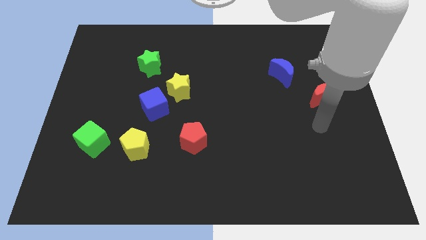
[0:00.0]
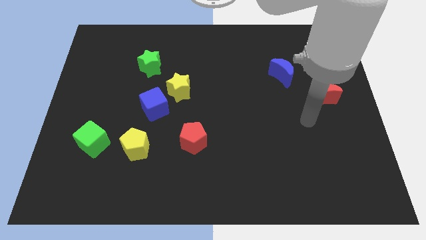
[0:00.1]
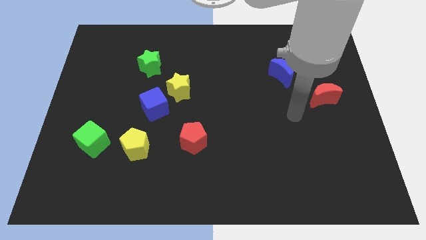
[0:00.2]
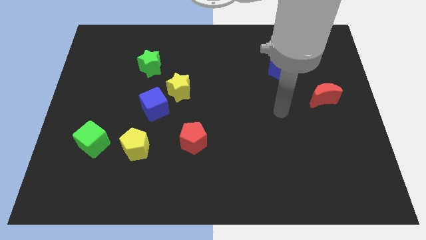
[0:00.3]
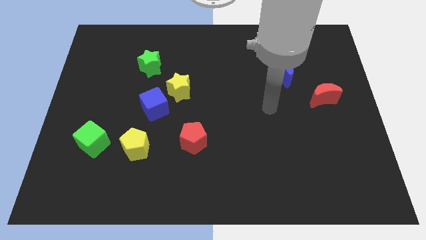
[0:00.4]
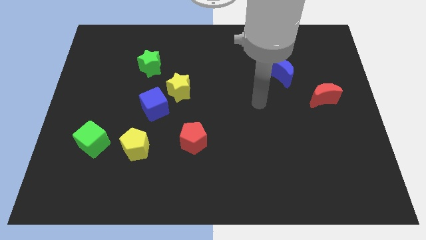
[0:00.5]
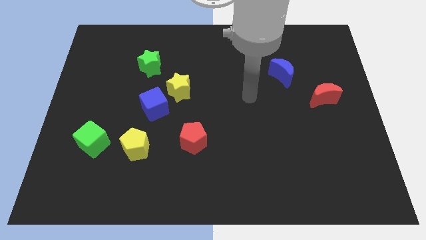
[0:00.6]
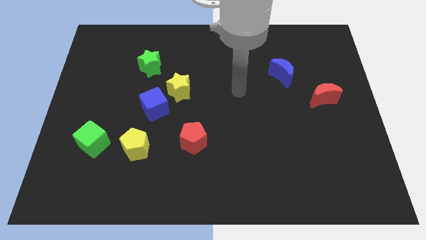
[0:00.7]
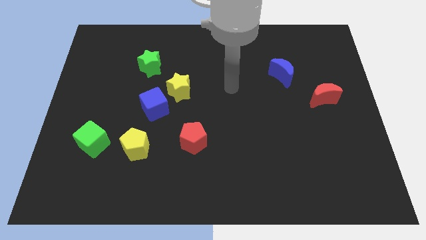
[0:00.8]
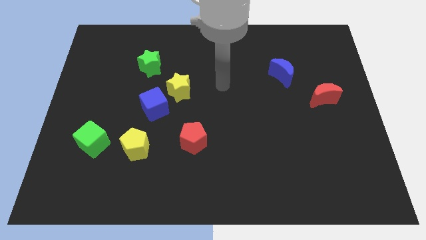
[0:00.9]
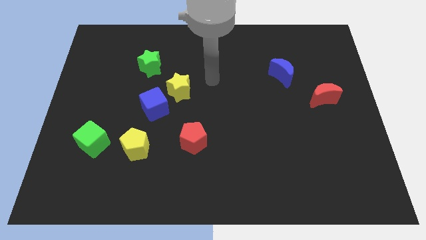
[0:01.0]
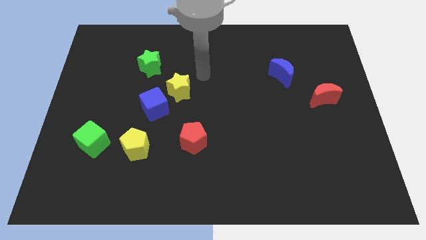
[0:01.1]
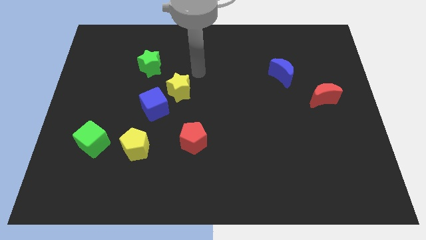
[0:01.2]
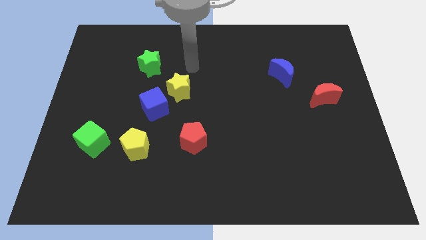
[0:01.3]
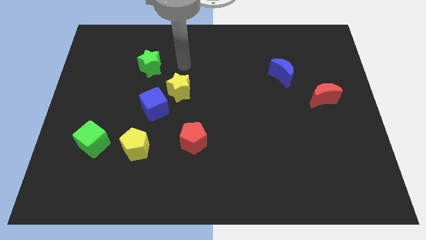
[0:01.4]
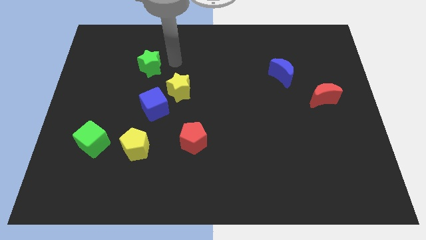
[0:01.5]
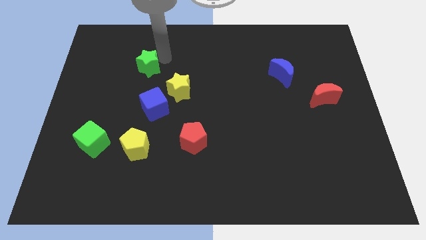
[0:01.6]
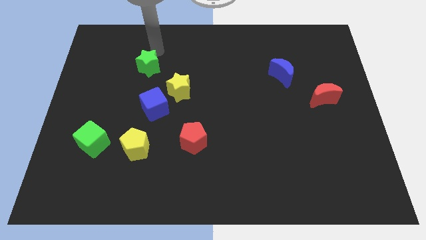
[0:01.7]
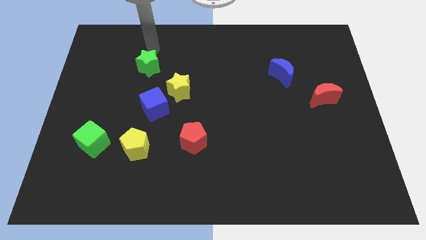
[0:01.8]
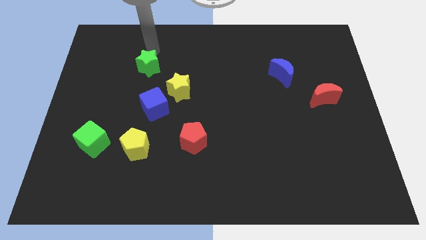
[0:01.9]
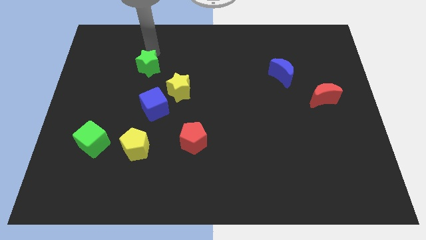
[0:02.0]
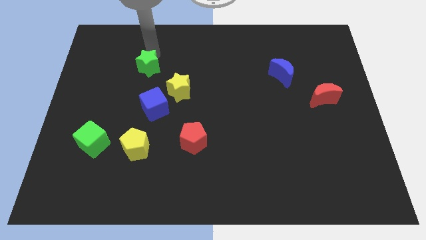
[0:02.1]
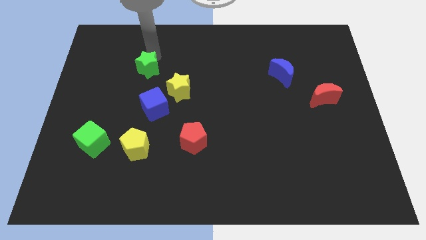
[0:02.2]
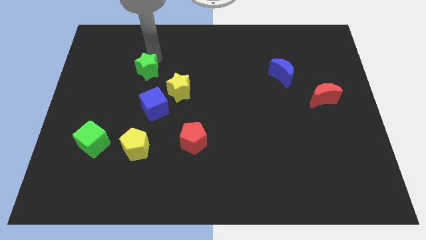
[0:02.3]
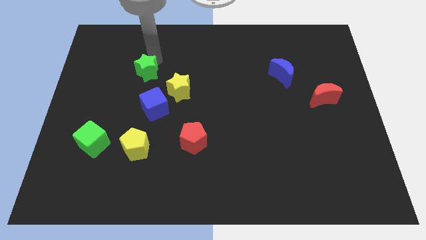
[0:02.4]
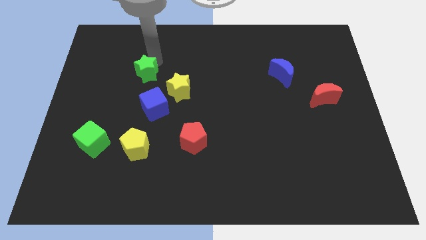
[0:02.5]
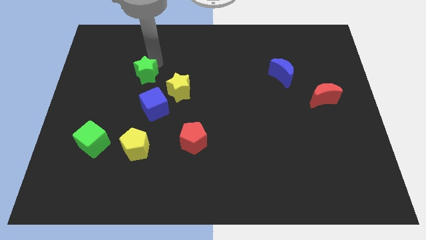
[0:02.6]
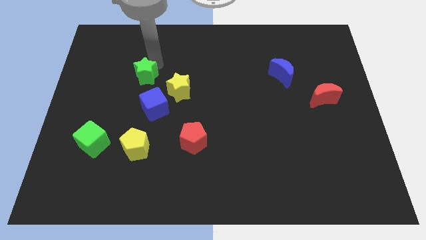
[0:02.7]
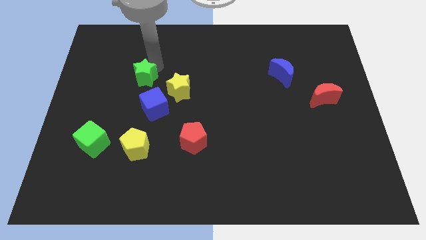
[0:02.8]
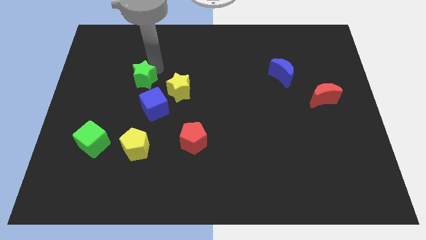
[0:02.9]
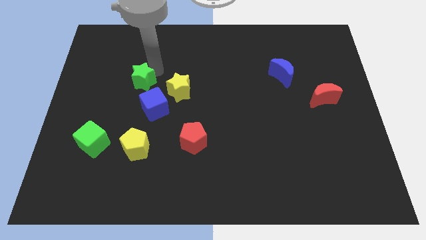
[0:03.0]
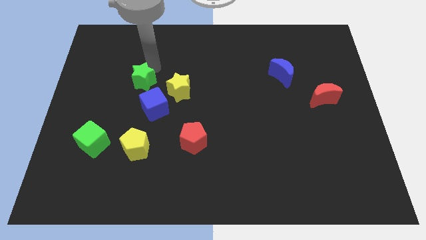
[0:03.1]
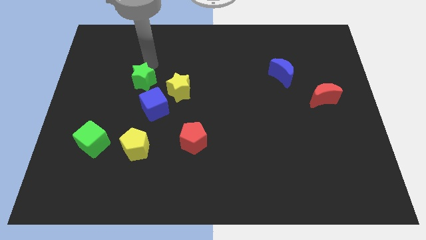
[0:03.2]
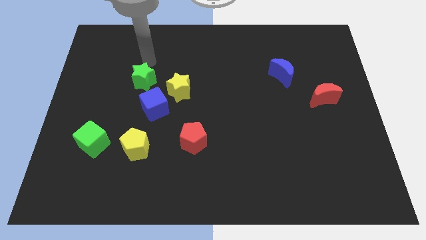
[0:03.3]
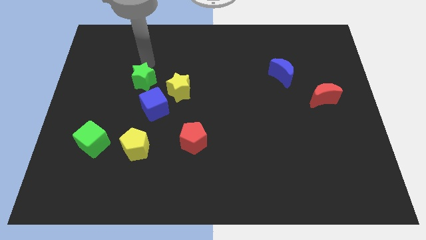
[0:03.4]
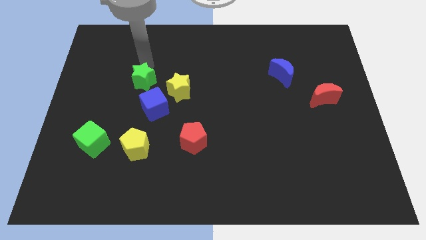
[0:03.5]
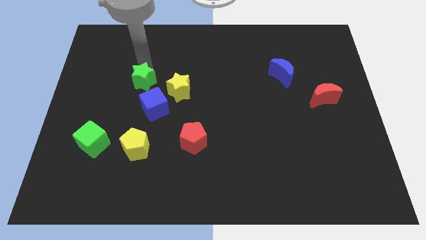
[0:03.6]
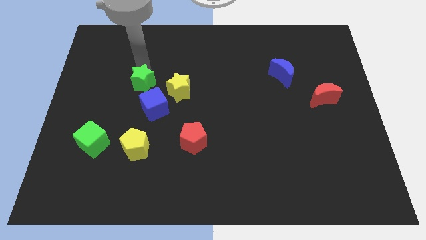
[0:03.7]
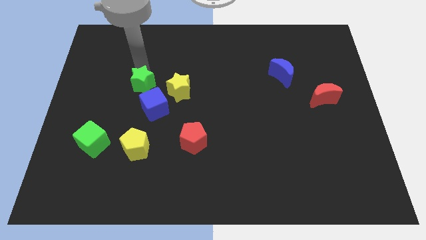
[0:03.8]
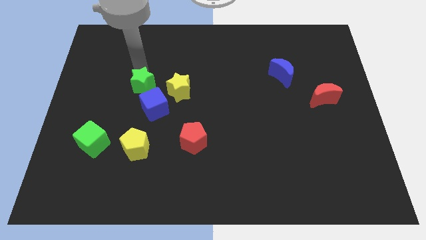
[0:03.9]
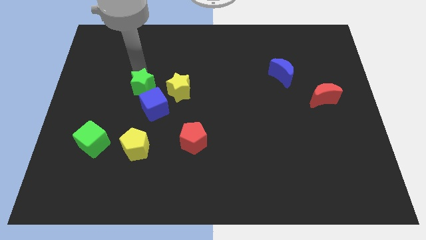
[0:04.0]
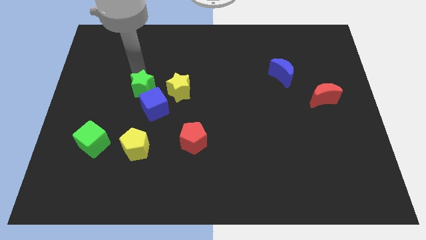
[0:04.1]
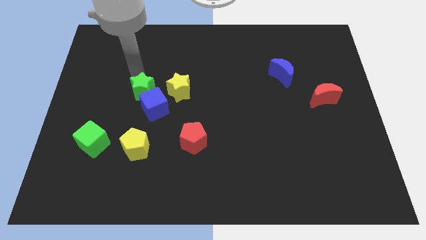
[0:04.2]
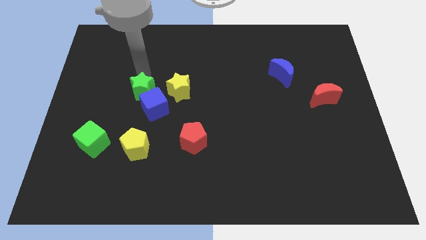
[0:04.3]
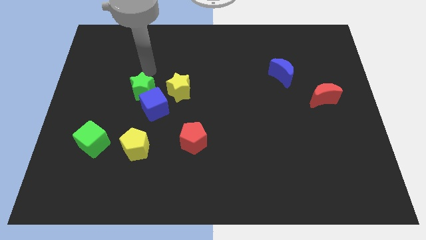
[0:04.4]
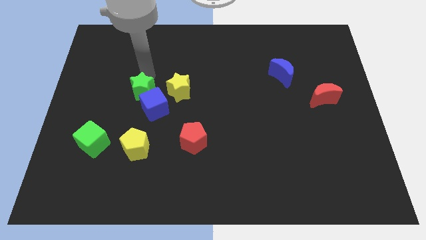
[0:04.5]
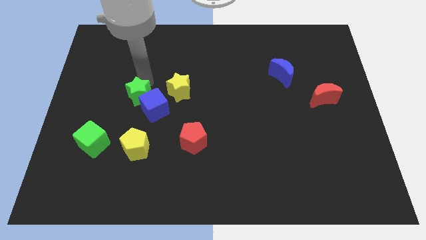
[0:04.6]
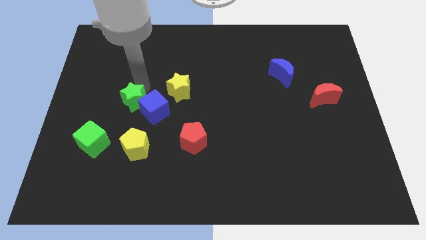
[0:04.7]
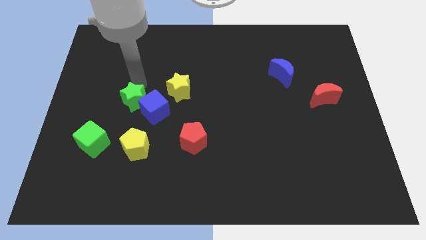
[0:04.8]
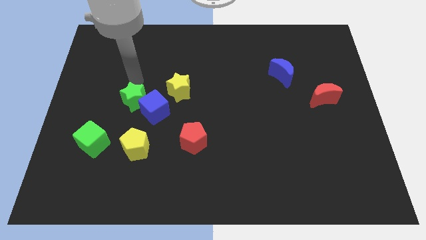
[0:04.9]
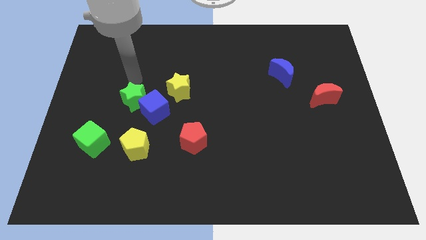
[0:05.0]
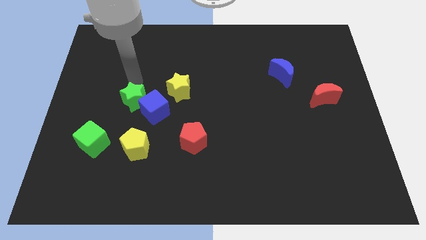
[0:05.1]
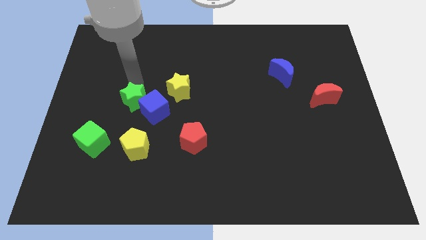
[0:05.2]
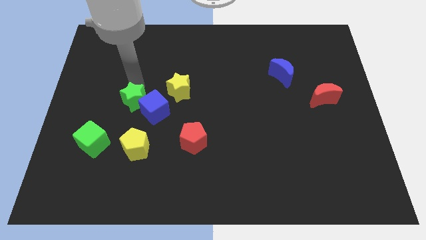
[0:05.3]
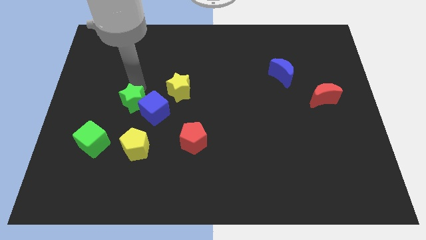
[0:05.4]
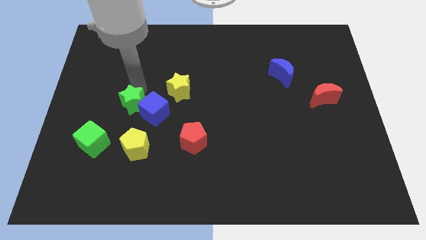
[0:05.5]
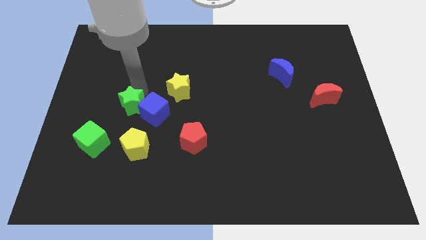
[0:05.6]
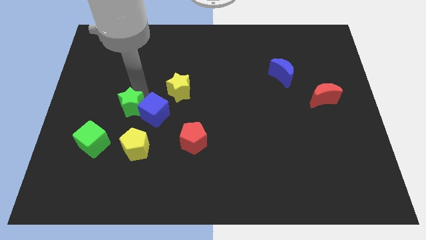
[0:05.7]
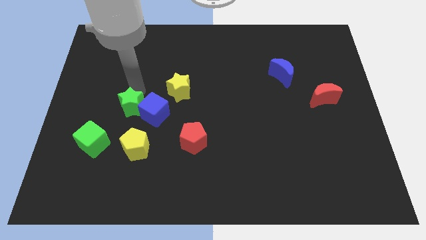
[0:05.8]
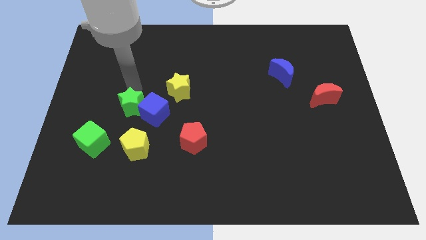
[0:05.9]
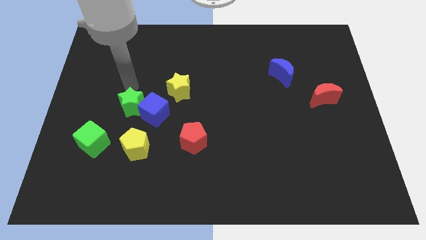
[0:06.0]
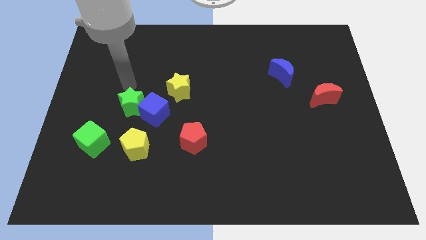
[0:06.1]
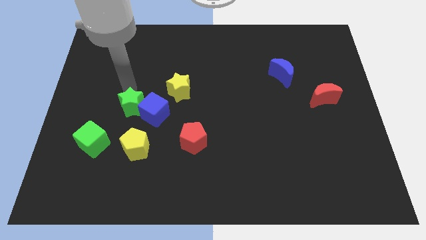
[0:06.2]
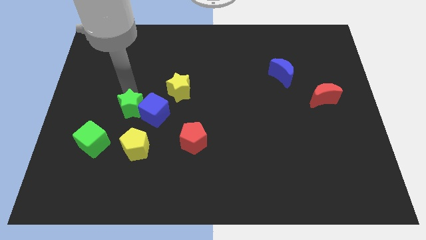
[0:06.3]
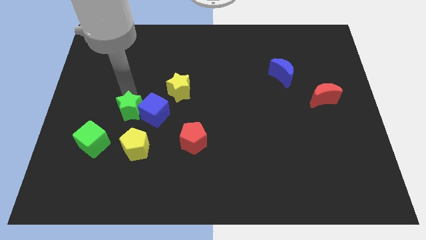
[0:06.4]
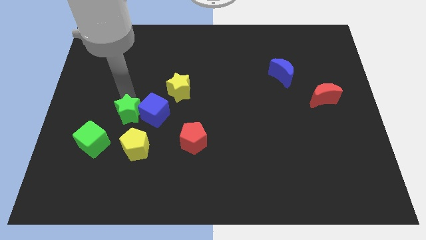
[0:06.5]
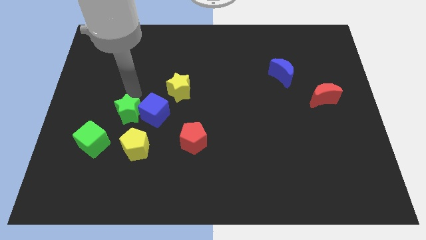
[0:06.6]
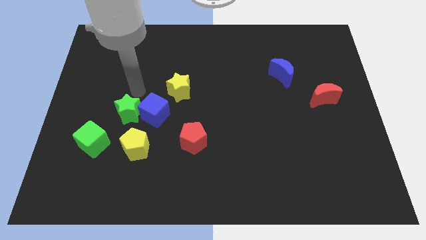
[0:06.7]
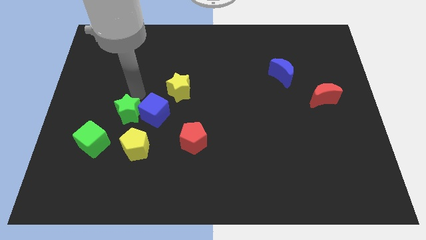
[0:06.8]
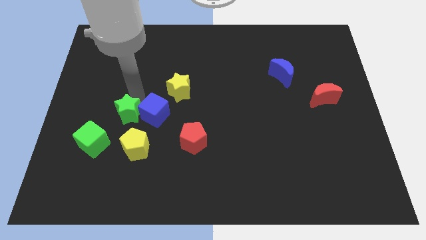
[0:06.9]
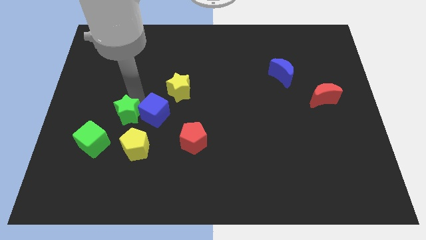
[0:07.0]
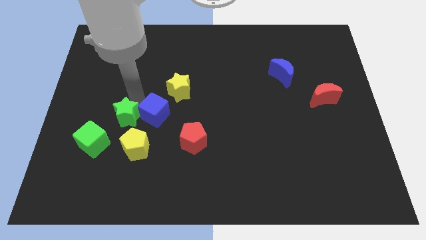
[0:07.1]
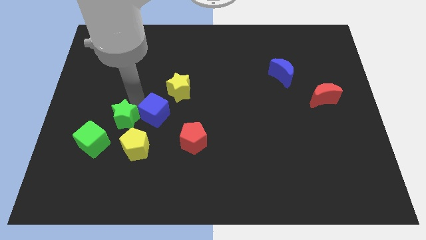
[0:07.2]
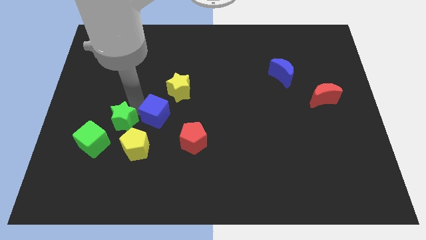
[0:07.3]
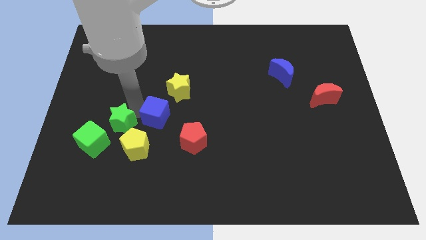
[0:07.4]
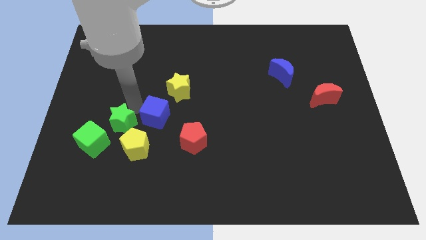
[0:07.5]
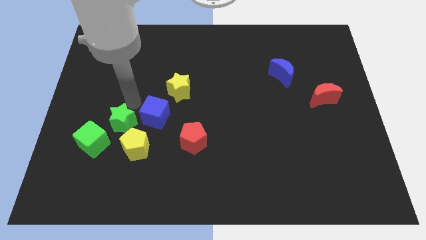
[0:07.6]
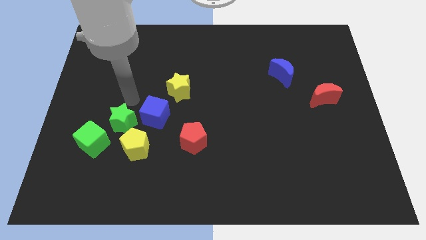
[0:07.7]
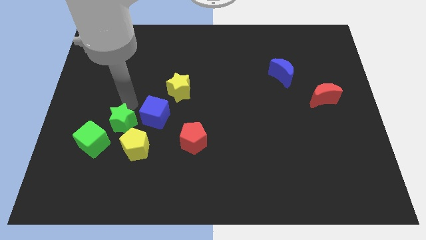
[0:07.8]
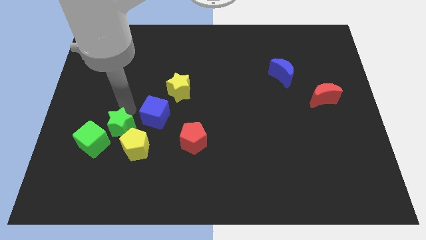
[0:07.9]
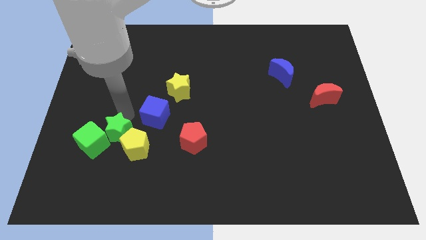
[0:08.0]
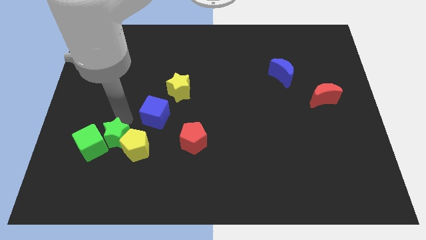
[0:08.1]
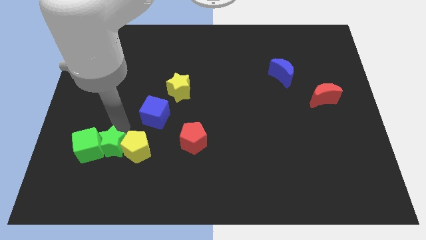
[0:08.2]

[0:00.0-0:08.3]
move the green star to the bottom left side of the yellow pentagon
